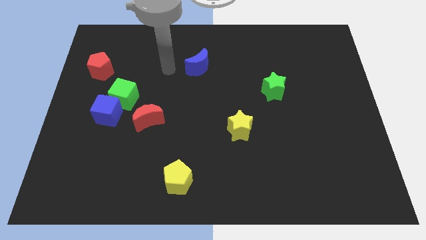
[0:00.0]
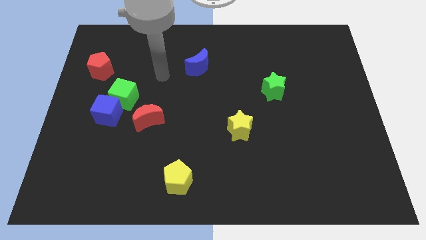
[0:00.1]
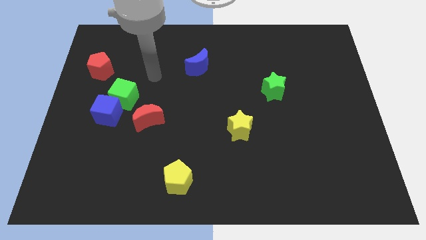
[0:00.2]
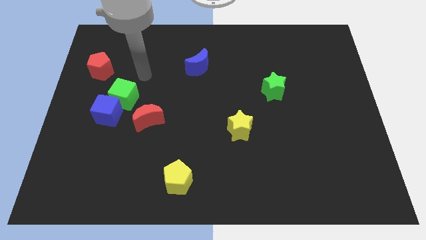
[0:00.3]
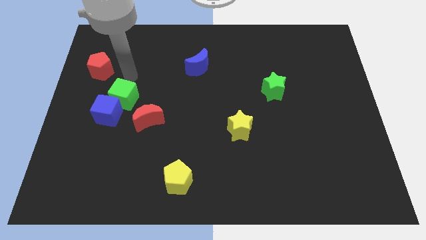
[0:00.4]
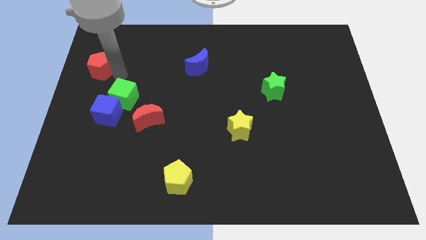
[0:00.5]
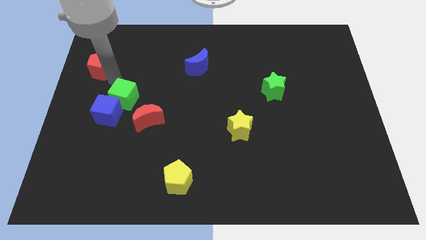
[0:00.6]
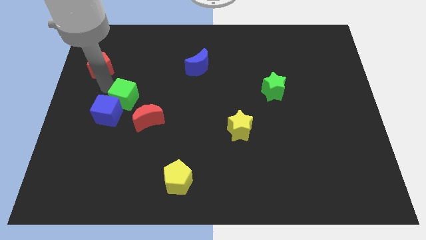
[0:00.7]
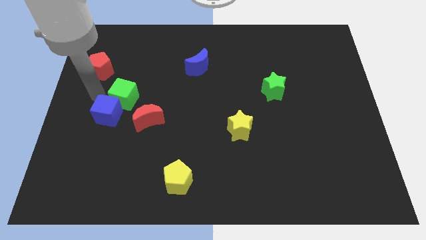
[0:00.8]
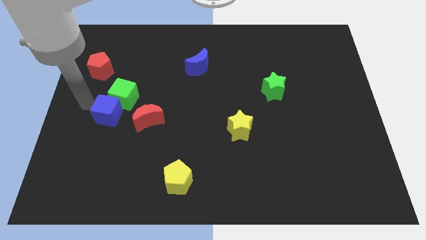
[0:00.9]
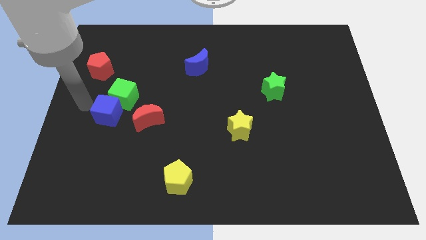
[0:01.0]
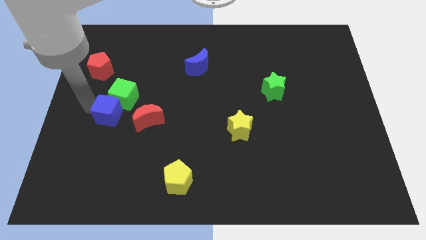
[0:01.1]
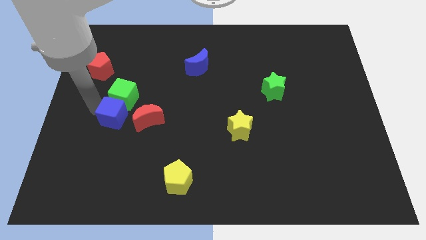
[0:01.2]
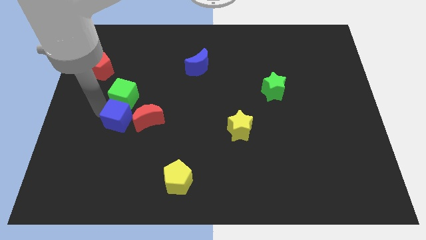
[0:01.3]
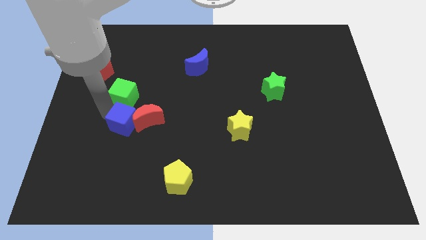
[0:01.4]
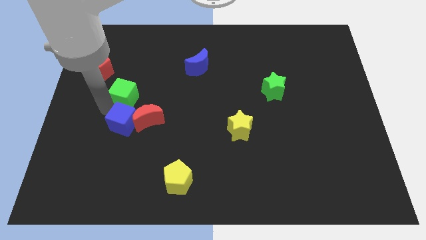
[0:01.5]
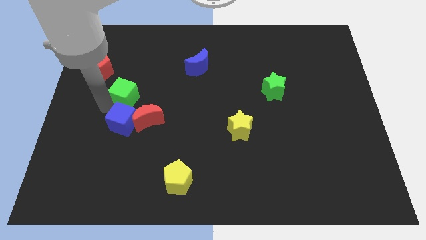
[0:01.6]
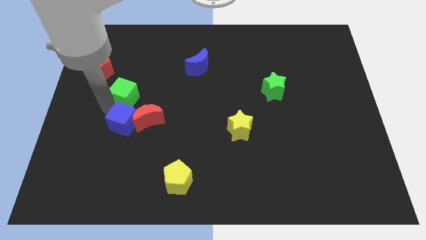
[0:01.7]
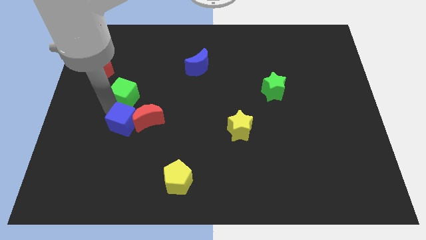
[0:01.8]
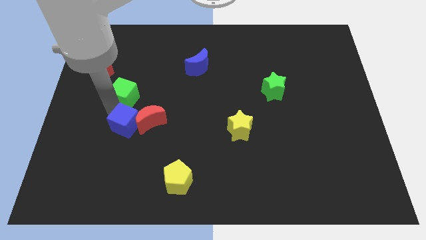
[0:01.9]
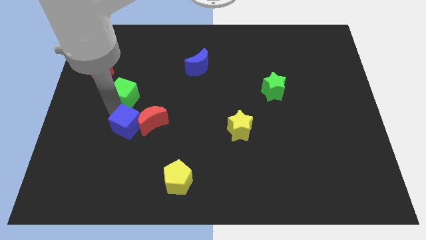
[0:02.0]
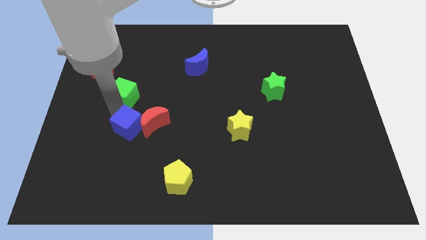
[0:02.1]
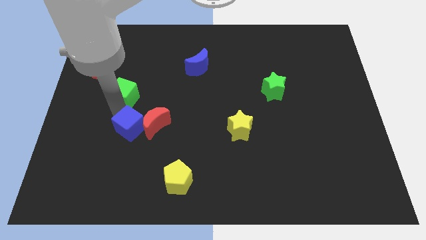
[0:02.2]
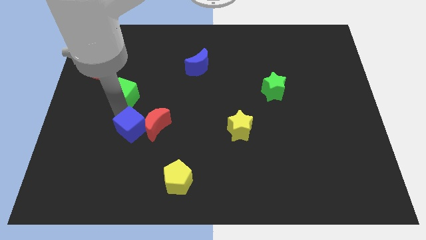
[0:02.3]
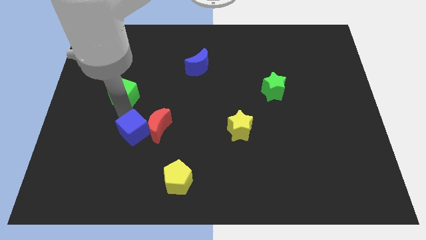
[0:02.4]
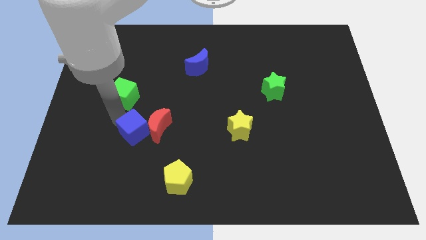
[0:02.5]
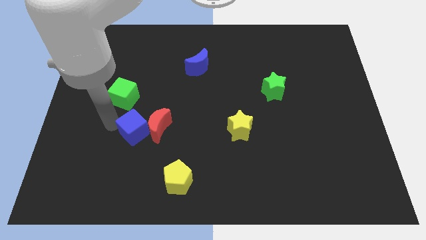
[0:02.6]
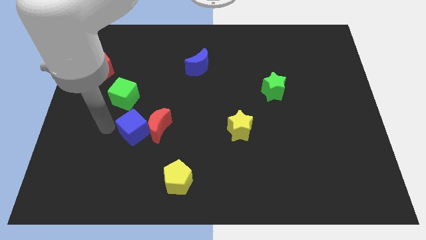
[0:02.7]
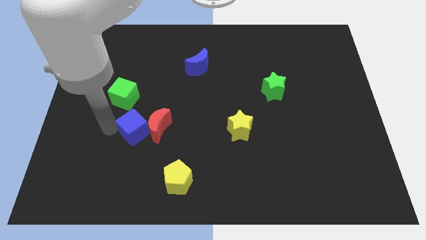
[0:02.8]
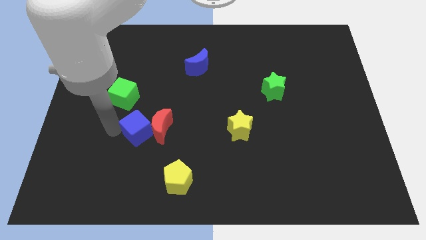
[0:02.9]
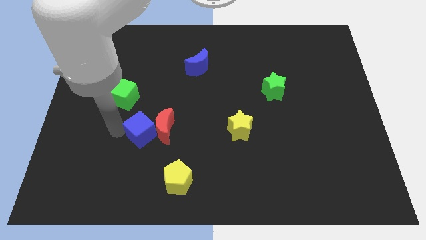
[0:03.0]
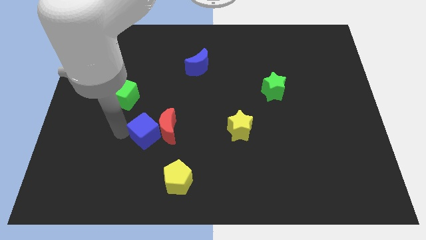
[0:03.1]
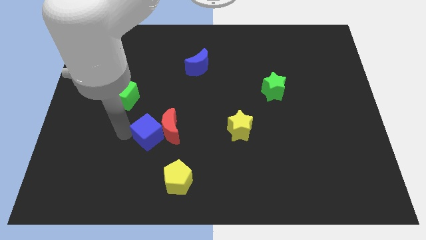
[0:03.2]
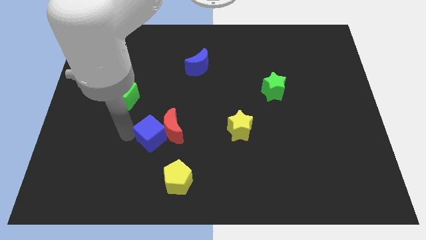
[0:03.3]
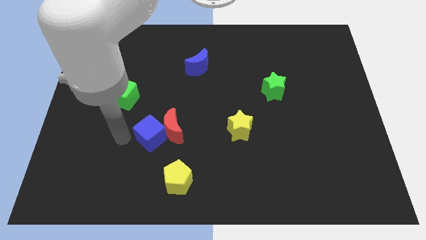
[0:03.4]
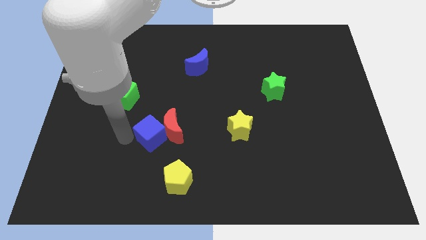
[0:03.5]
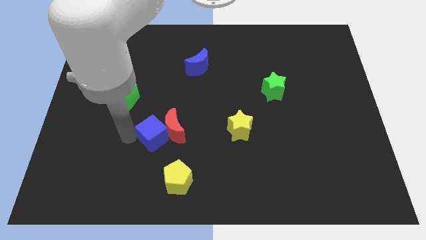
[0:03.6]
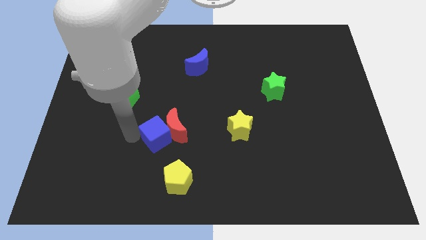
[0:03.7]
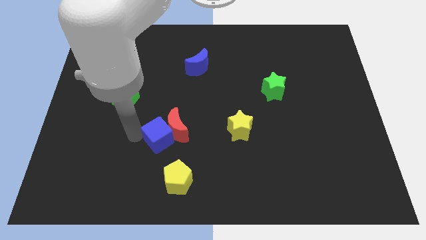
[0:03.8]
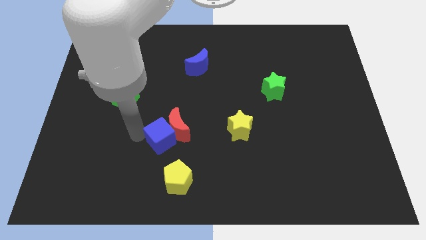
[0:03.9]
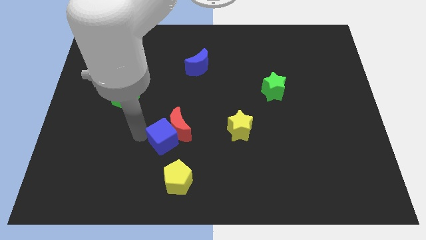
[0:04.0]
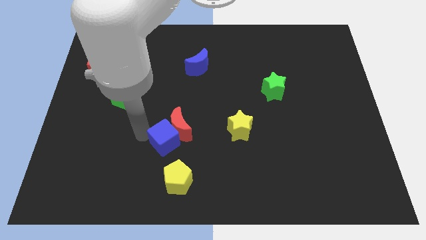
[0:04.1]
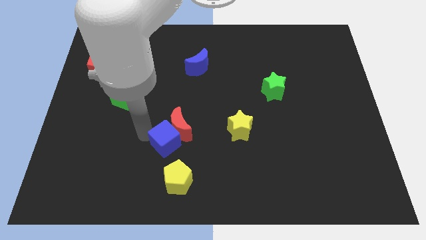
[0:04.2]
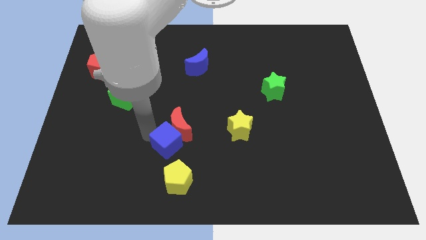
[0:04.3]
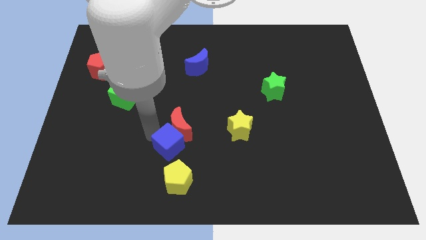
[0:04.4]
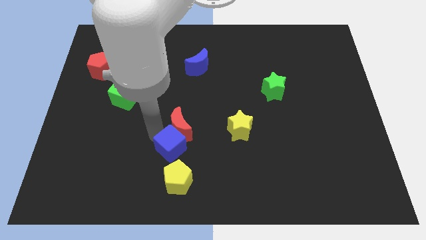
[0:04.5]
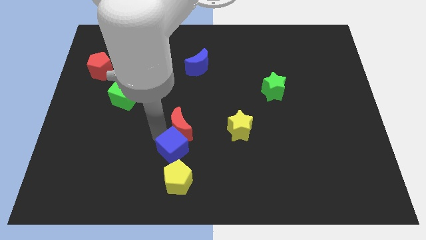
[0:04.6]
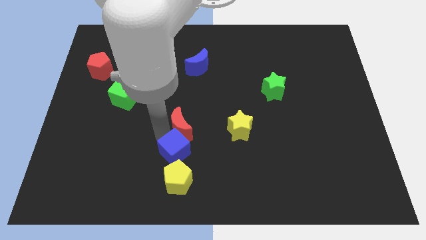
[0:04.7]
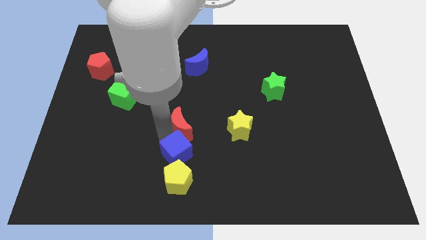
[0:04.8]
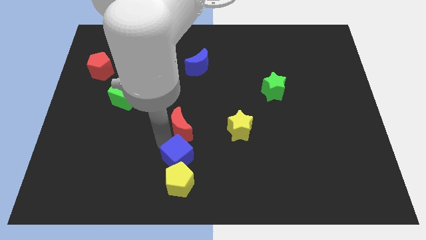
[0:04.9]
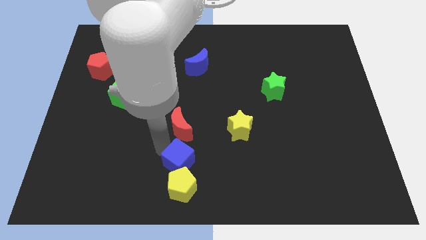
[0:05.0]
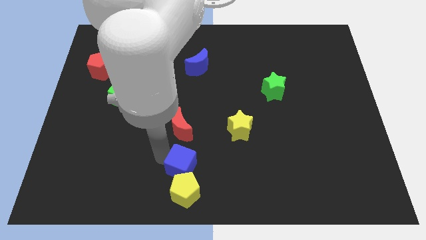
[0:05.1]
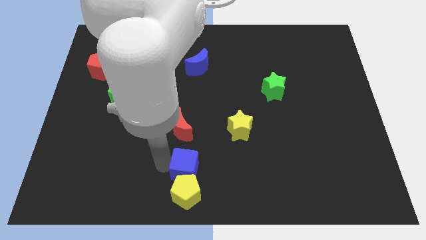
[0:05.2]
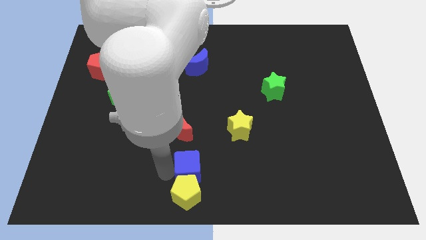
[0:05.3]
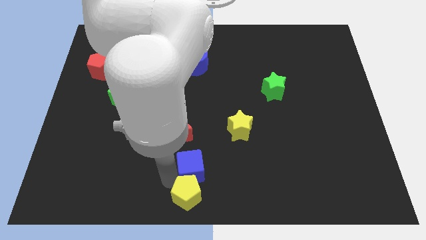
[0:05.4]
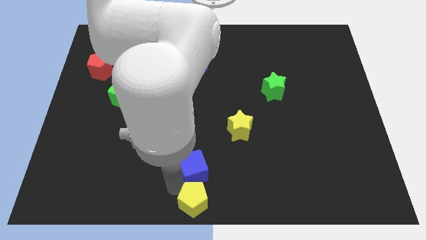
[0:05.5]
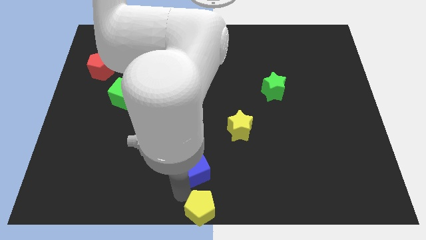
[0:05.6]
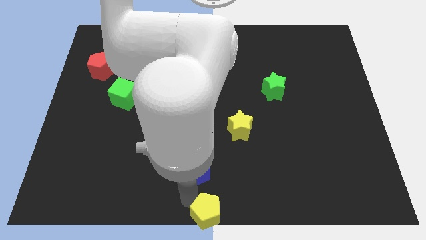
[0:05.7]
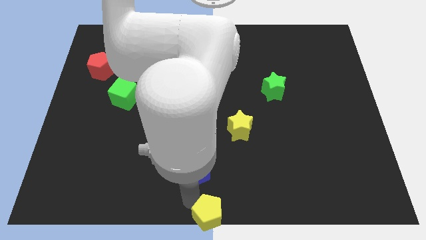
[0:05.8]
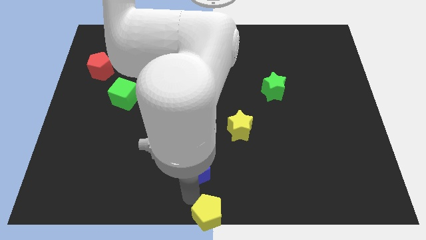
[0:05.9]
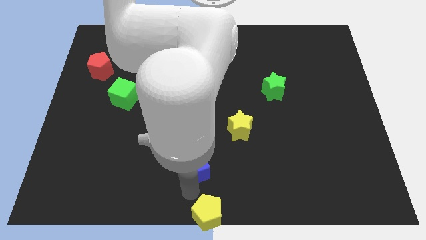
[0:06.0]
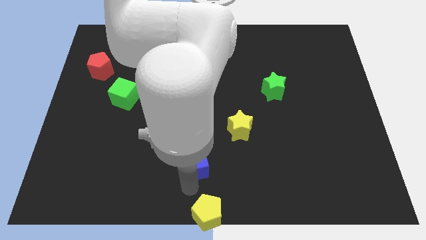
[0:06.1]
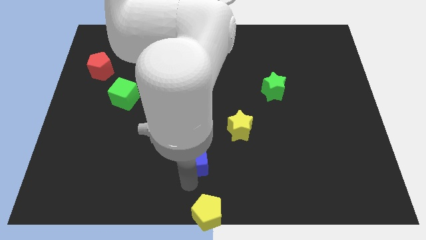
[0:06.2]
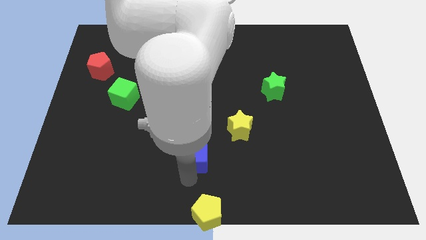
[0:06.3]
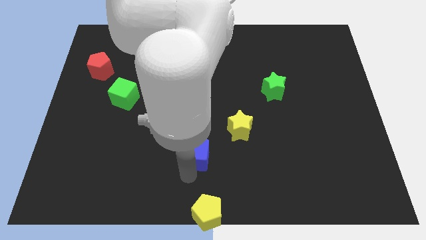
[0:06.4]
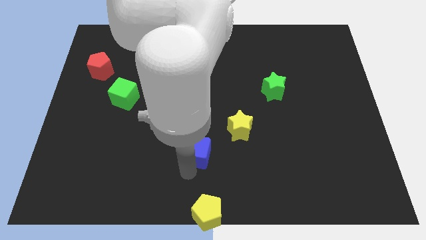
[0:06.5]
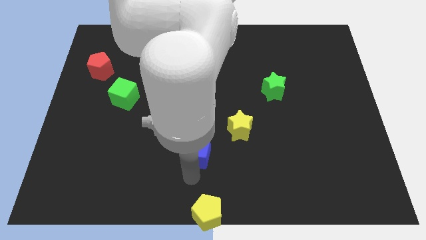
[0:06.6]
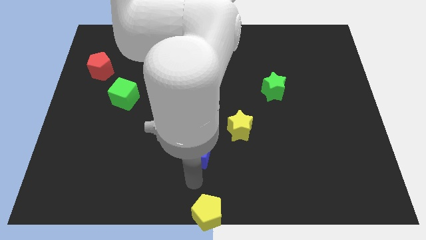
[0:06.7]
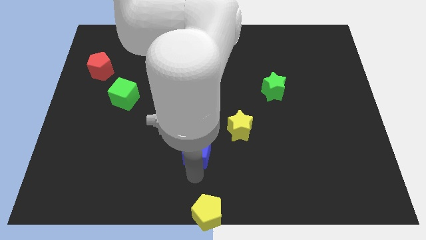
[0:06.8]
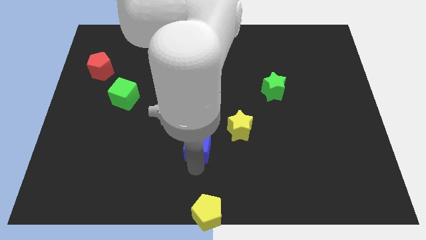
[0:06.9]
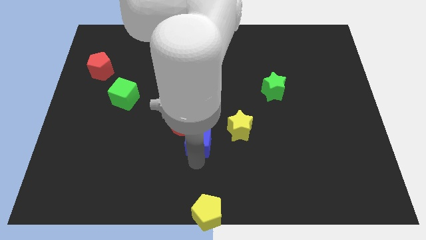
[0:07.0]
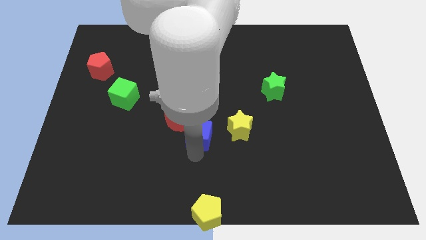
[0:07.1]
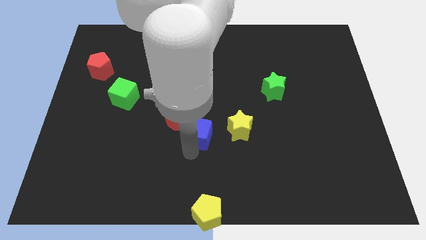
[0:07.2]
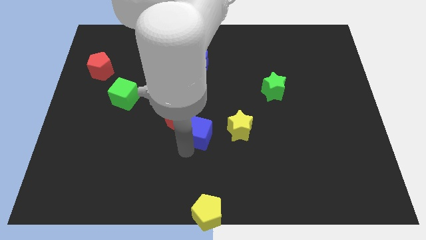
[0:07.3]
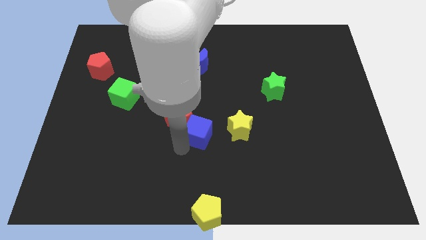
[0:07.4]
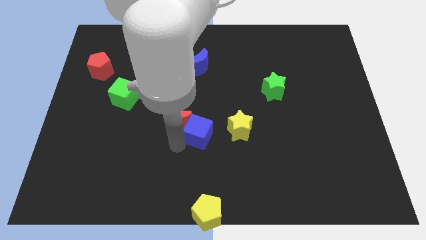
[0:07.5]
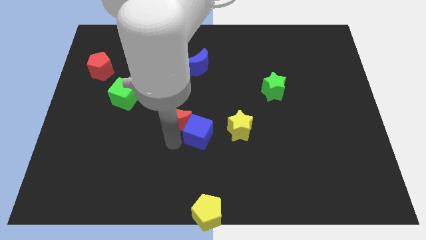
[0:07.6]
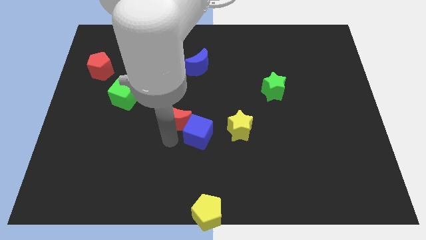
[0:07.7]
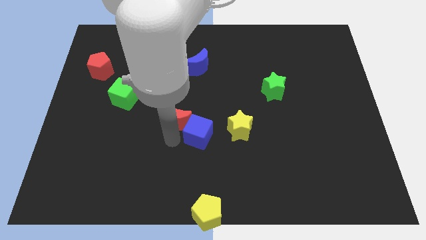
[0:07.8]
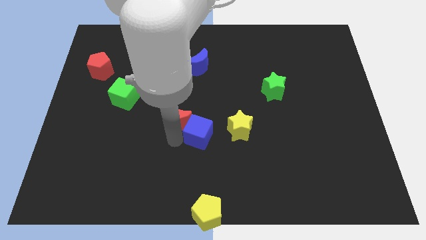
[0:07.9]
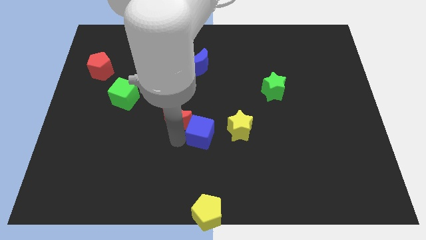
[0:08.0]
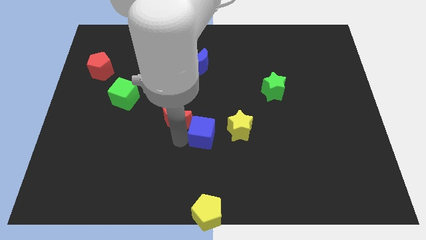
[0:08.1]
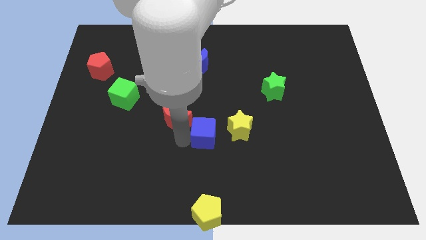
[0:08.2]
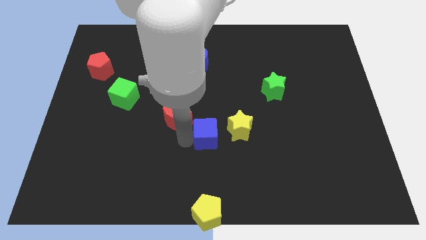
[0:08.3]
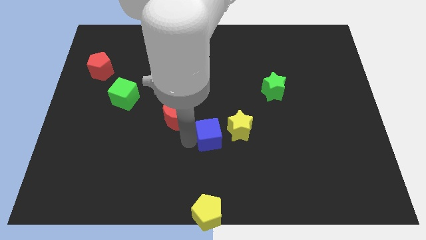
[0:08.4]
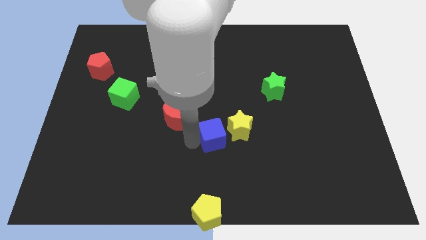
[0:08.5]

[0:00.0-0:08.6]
slide the blue cube to the yellow star
